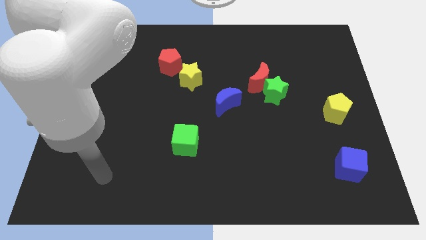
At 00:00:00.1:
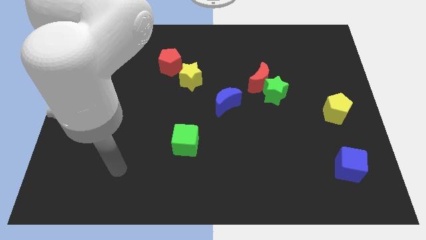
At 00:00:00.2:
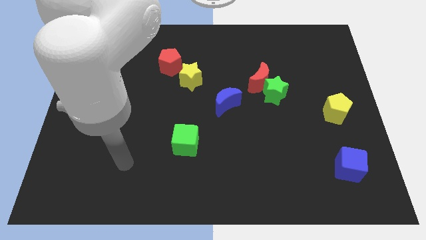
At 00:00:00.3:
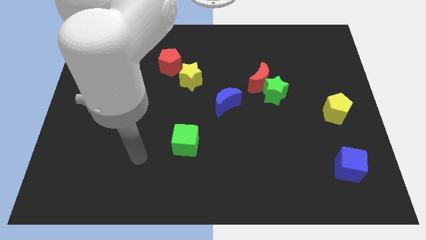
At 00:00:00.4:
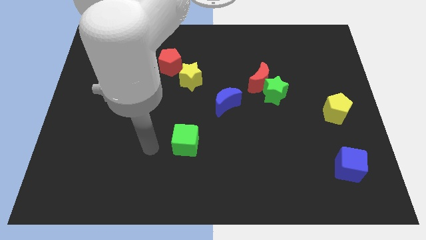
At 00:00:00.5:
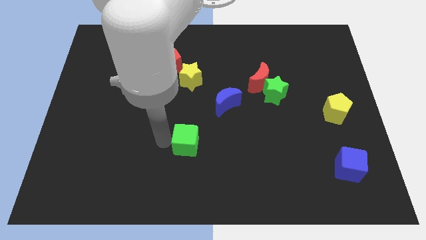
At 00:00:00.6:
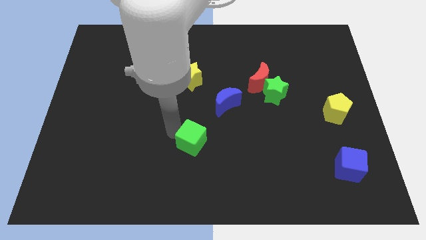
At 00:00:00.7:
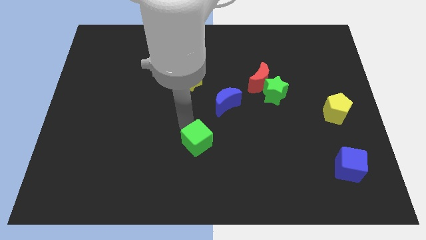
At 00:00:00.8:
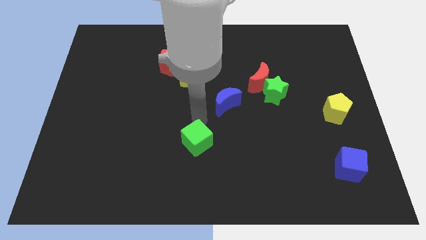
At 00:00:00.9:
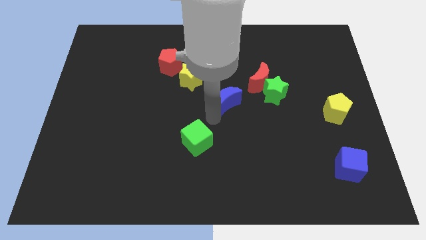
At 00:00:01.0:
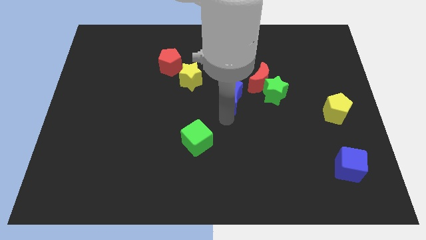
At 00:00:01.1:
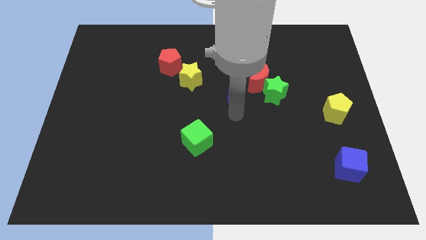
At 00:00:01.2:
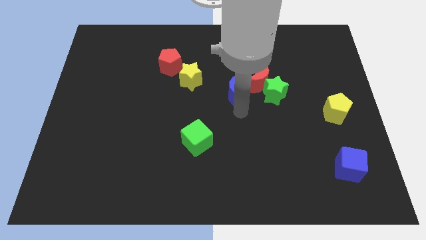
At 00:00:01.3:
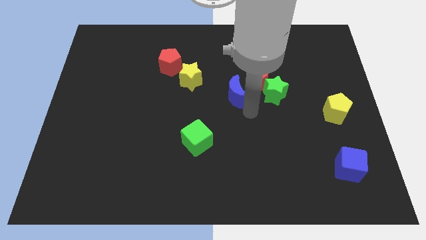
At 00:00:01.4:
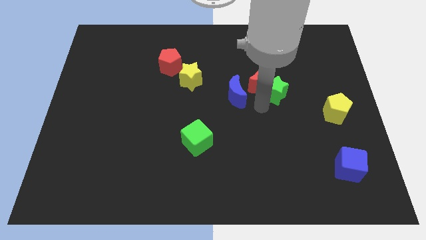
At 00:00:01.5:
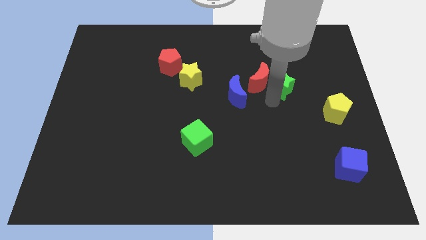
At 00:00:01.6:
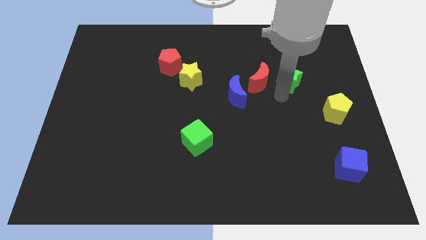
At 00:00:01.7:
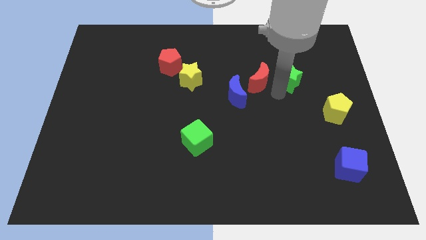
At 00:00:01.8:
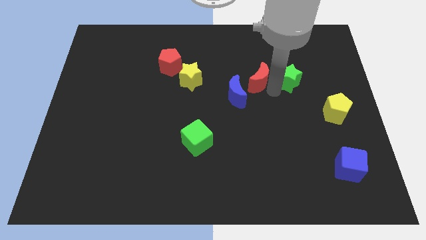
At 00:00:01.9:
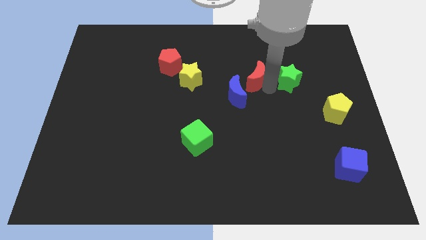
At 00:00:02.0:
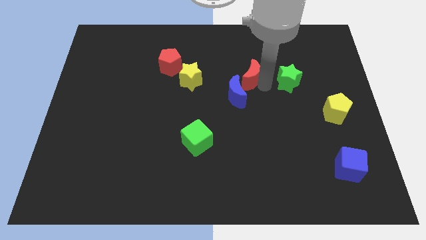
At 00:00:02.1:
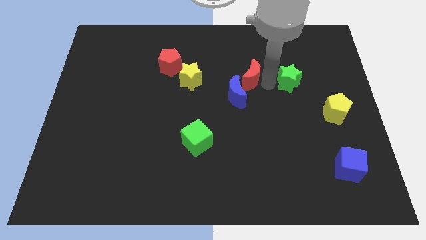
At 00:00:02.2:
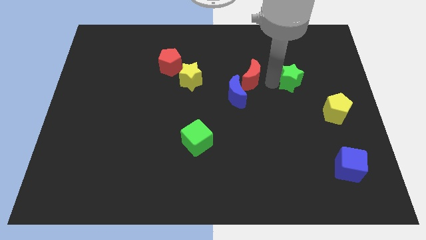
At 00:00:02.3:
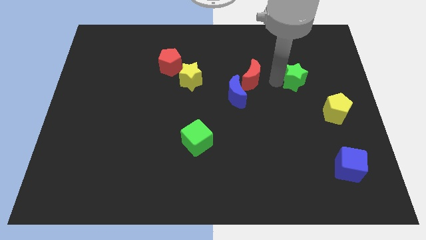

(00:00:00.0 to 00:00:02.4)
pull the red moon apart from the green star

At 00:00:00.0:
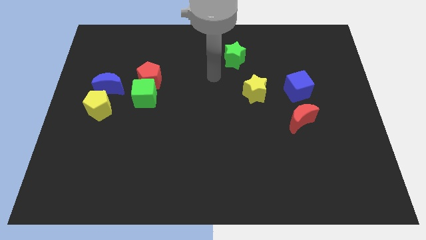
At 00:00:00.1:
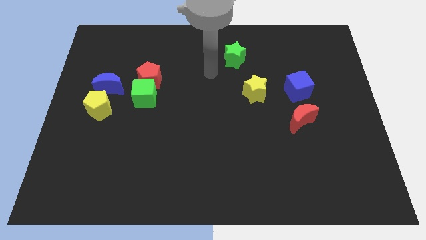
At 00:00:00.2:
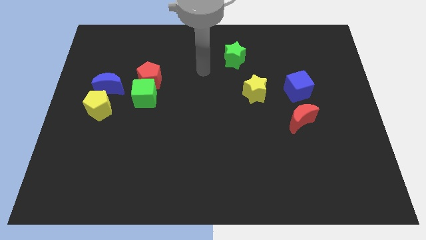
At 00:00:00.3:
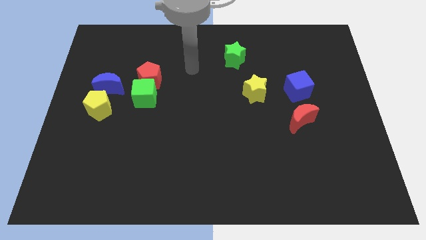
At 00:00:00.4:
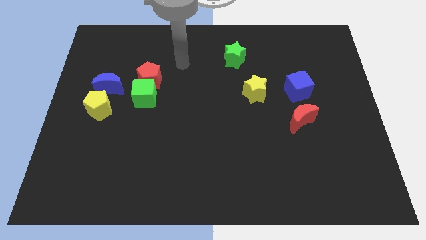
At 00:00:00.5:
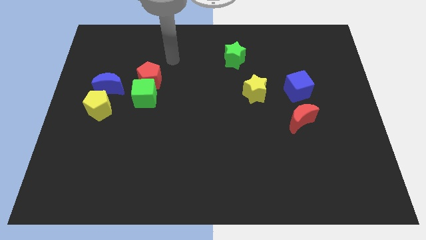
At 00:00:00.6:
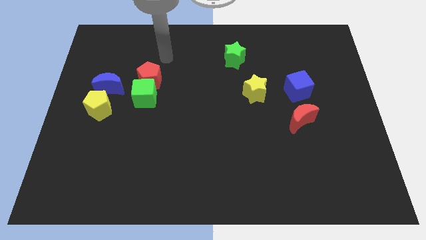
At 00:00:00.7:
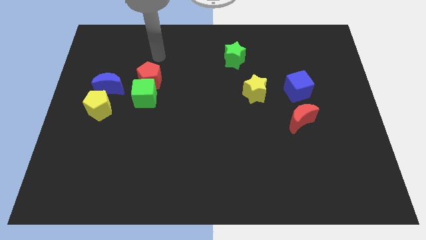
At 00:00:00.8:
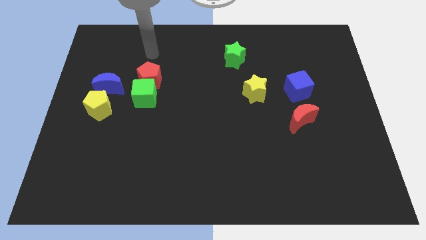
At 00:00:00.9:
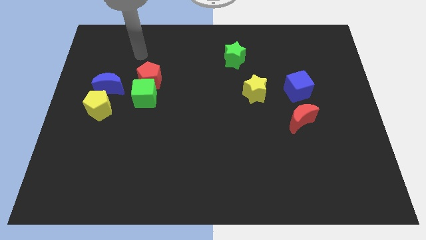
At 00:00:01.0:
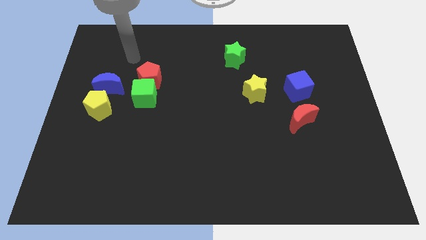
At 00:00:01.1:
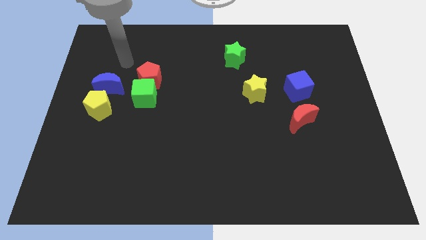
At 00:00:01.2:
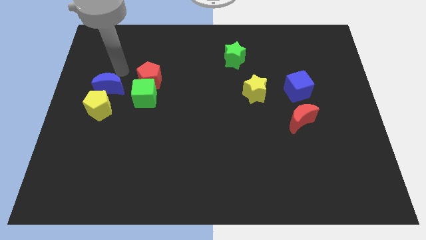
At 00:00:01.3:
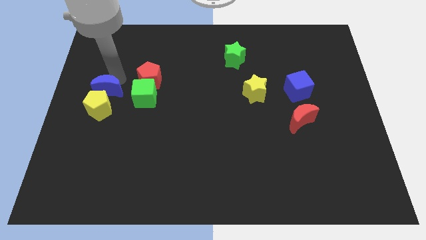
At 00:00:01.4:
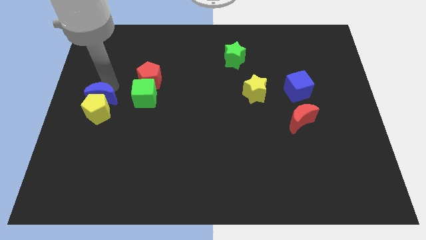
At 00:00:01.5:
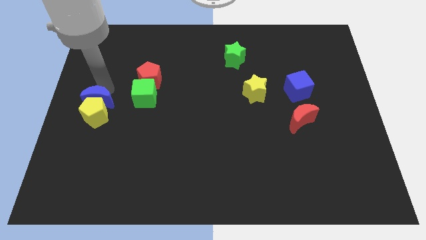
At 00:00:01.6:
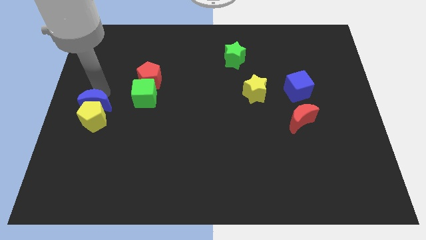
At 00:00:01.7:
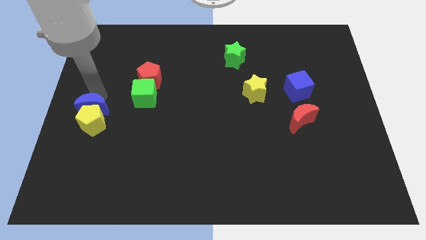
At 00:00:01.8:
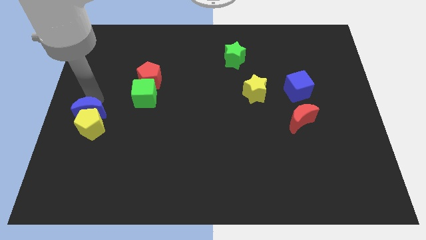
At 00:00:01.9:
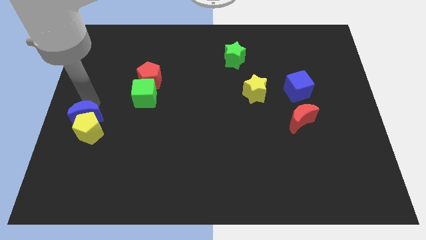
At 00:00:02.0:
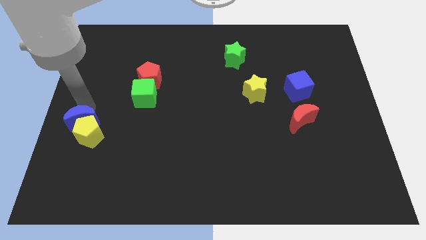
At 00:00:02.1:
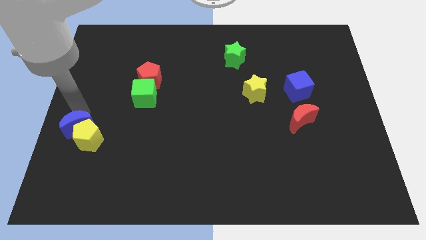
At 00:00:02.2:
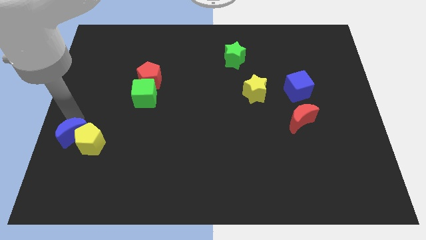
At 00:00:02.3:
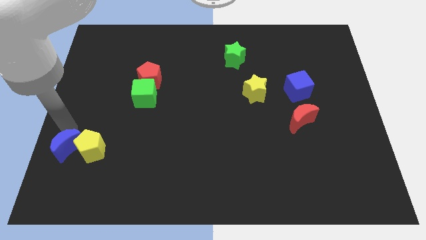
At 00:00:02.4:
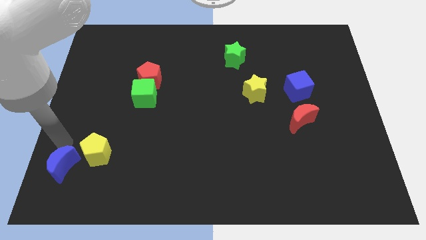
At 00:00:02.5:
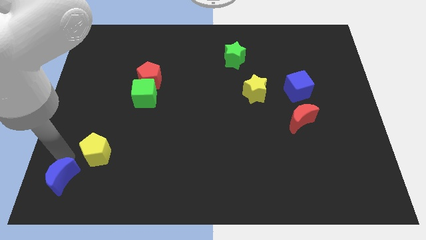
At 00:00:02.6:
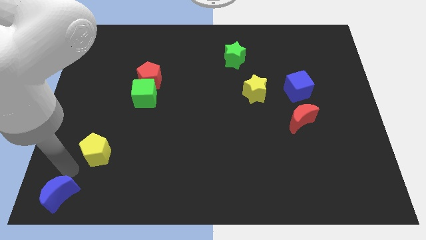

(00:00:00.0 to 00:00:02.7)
separate the yellow pentagon from the blue moon

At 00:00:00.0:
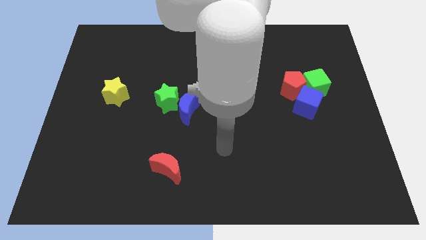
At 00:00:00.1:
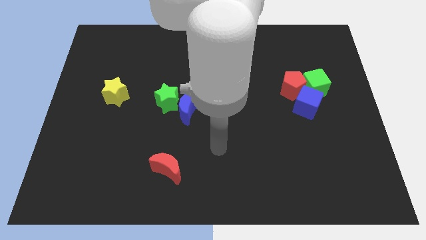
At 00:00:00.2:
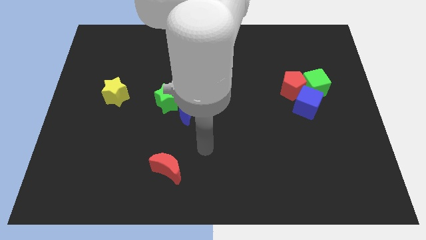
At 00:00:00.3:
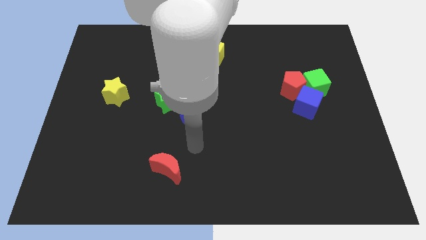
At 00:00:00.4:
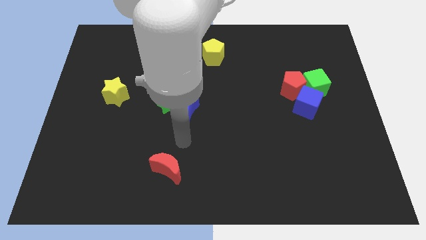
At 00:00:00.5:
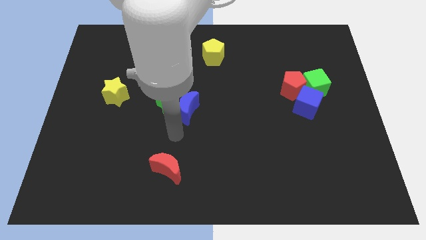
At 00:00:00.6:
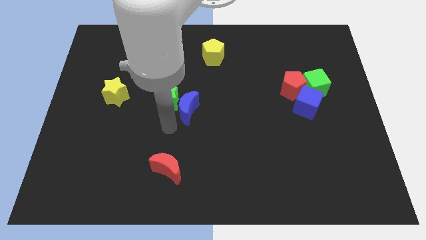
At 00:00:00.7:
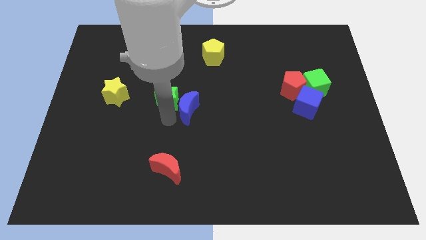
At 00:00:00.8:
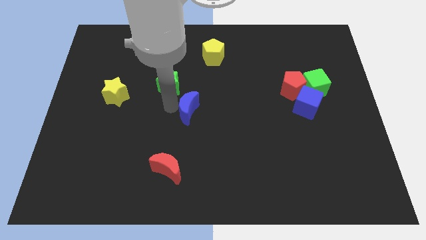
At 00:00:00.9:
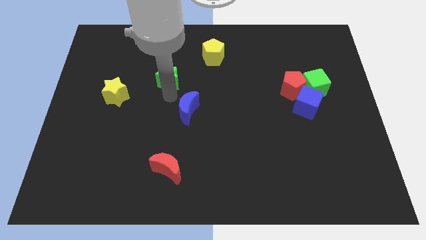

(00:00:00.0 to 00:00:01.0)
separate the blue moon from the green star

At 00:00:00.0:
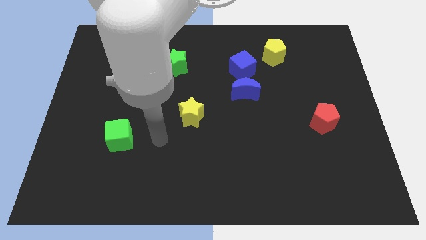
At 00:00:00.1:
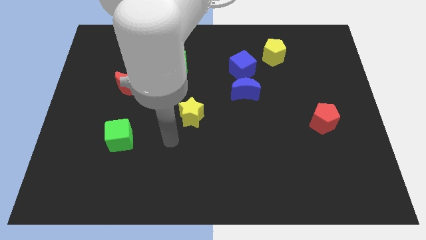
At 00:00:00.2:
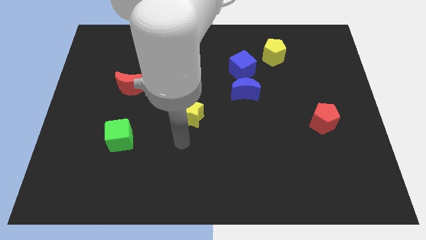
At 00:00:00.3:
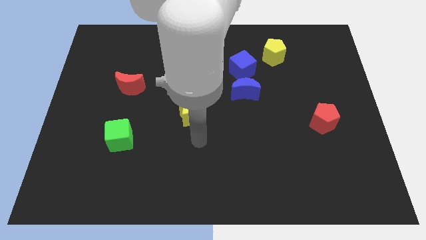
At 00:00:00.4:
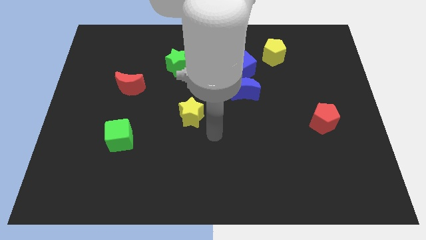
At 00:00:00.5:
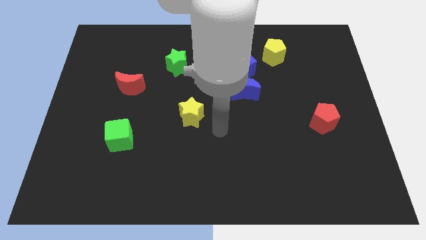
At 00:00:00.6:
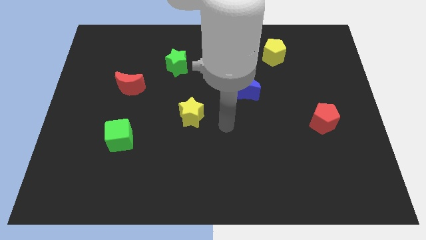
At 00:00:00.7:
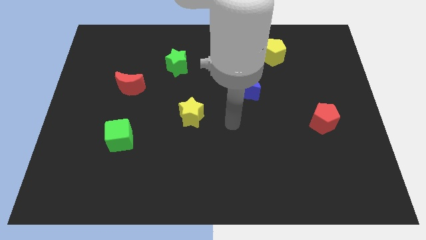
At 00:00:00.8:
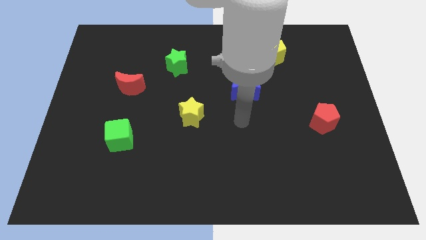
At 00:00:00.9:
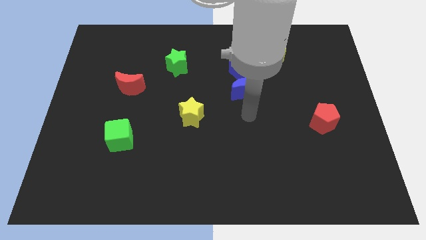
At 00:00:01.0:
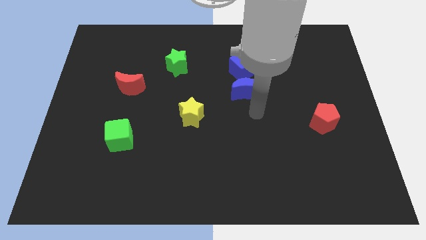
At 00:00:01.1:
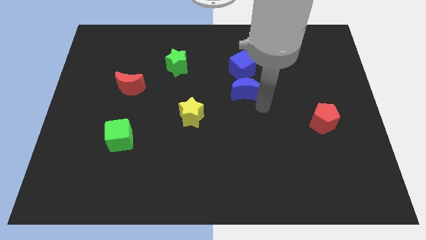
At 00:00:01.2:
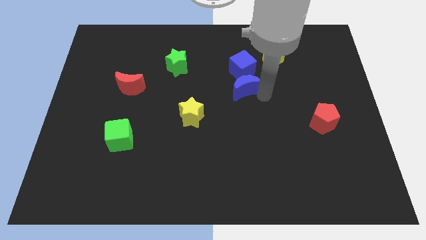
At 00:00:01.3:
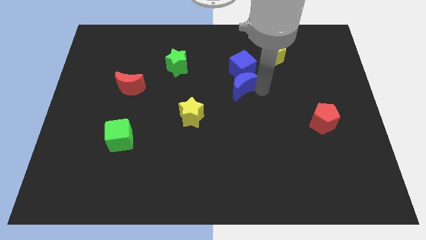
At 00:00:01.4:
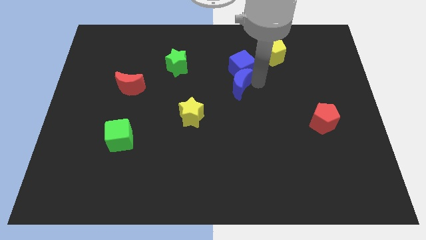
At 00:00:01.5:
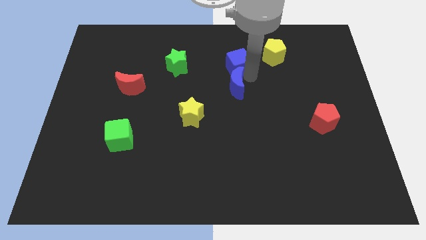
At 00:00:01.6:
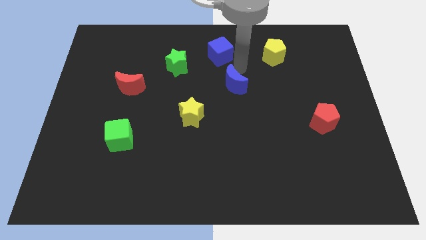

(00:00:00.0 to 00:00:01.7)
move the blue moon away from the blue cube

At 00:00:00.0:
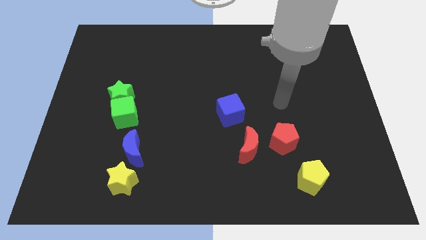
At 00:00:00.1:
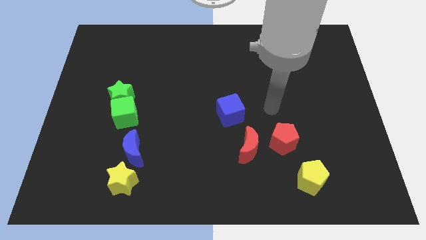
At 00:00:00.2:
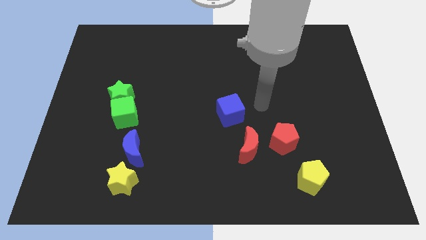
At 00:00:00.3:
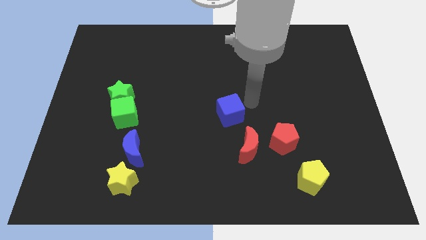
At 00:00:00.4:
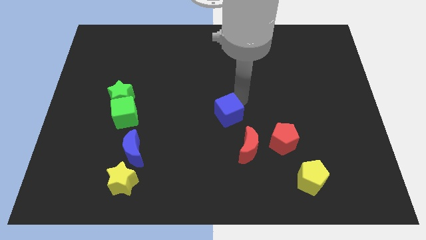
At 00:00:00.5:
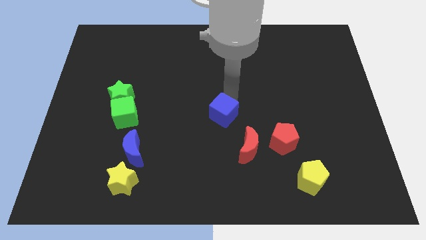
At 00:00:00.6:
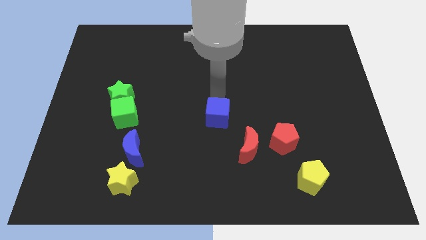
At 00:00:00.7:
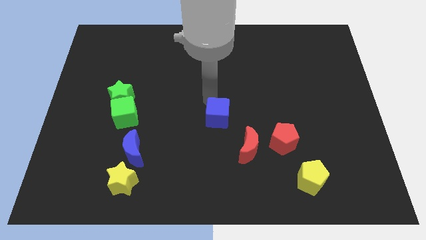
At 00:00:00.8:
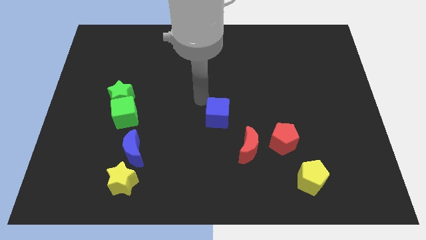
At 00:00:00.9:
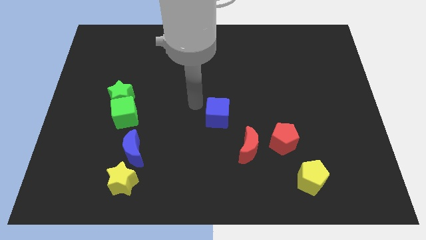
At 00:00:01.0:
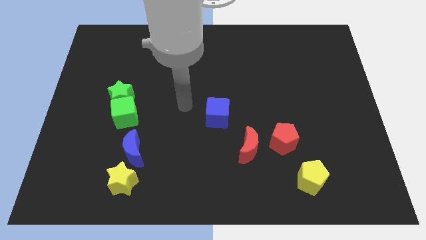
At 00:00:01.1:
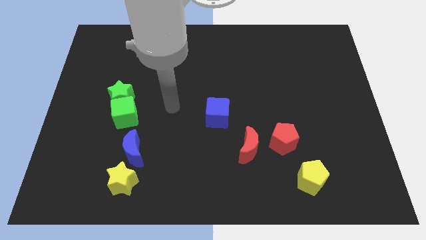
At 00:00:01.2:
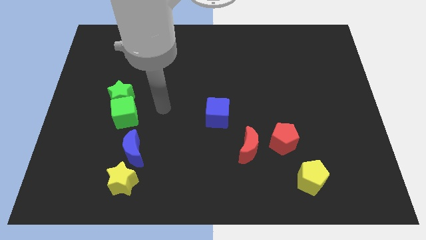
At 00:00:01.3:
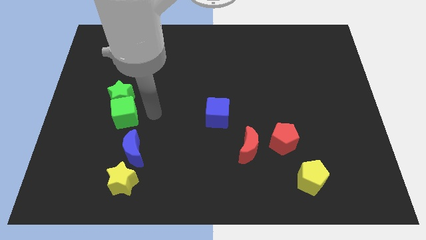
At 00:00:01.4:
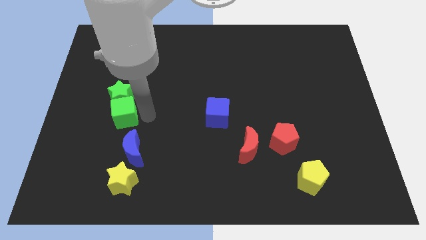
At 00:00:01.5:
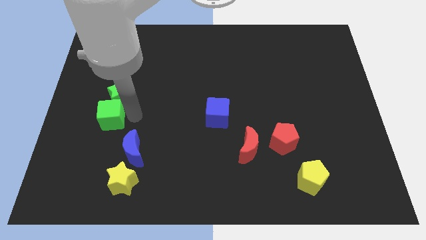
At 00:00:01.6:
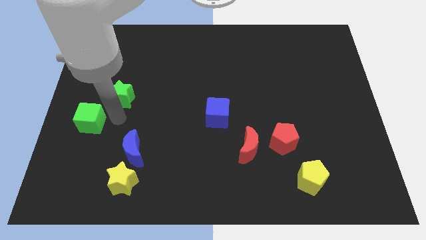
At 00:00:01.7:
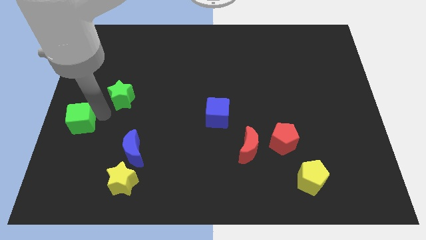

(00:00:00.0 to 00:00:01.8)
move the green star away from the green cube
